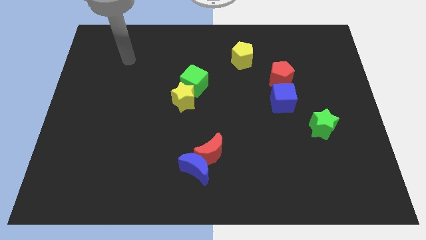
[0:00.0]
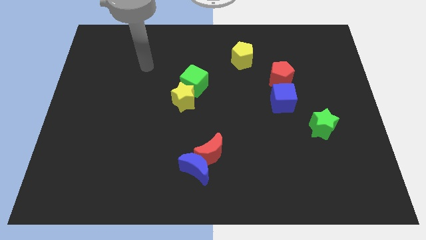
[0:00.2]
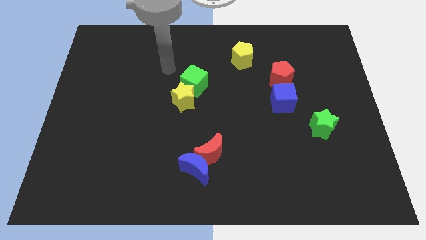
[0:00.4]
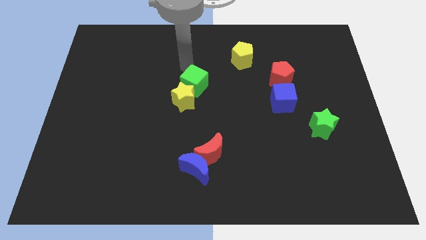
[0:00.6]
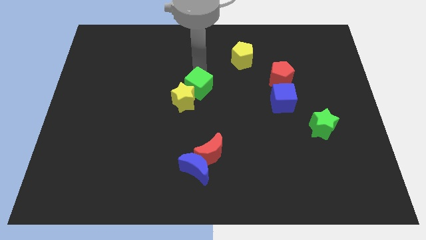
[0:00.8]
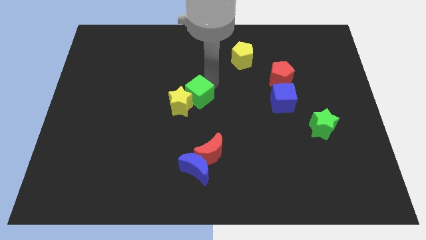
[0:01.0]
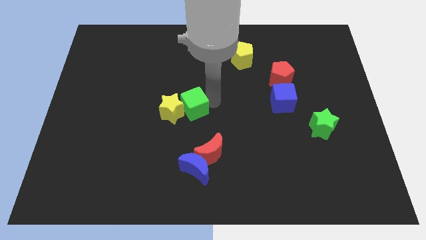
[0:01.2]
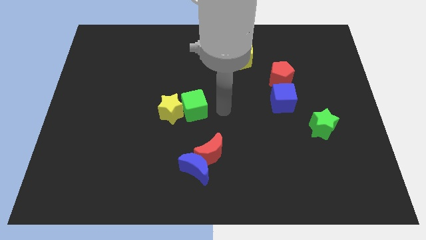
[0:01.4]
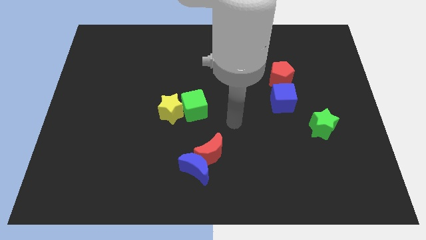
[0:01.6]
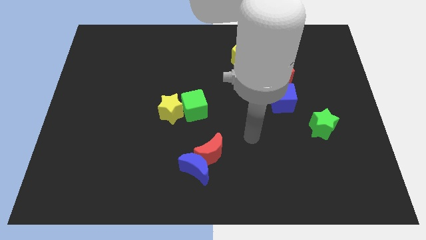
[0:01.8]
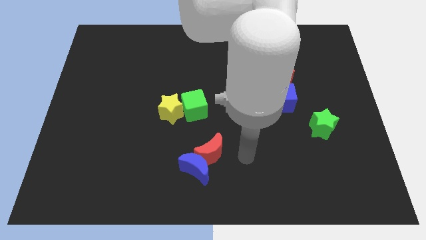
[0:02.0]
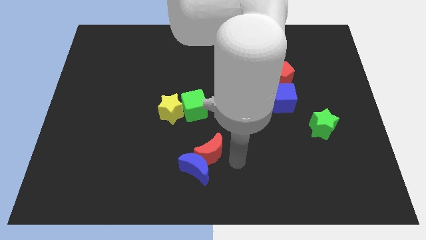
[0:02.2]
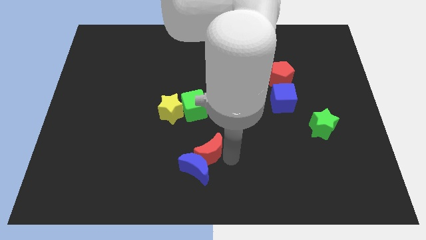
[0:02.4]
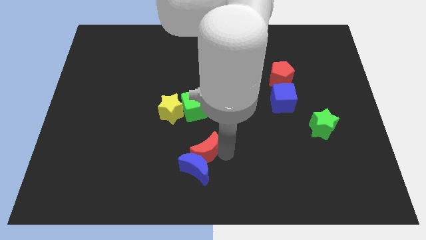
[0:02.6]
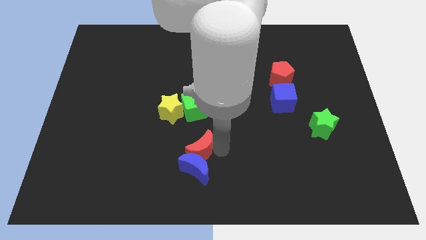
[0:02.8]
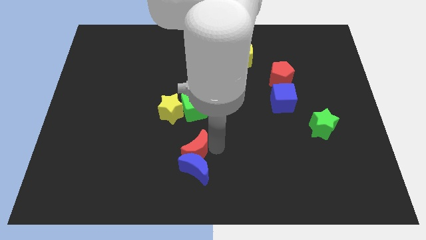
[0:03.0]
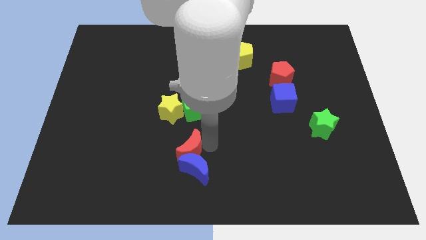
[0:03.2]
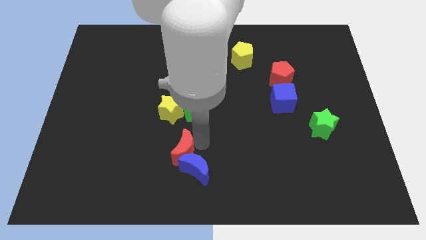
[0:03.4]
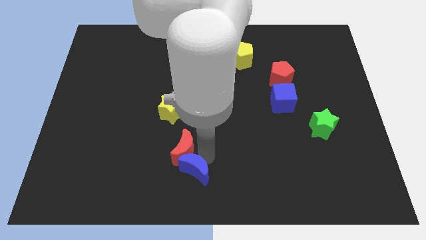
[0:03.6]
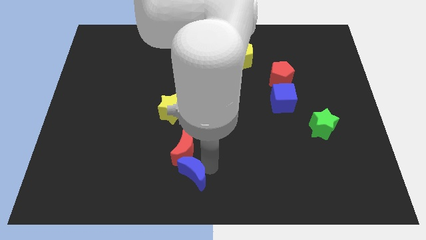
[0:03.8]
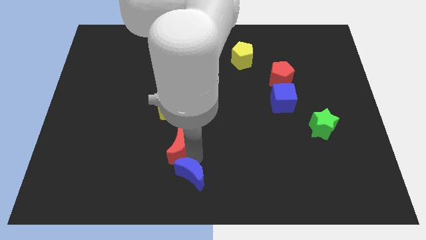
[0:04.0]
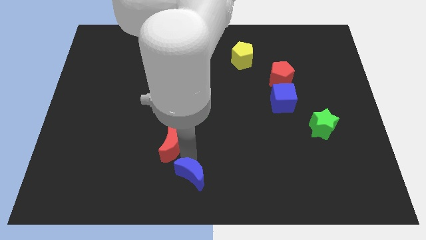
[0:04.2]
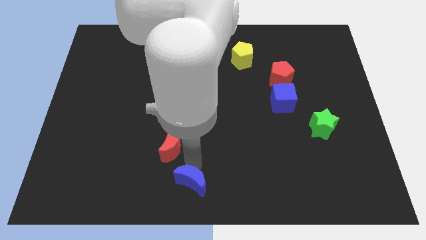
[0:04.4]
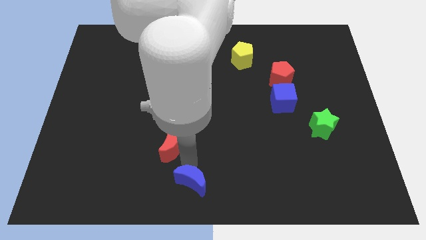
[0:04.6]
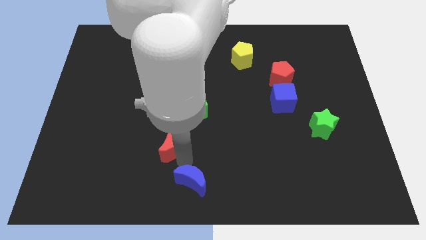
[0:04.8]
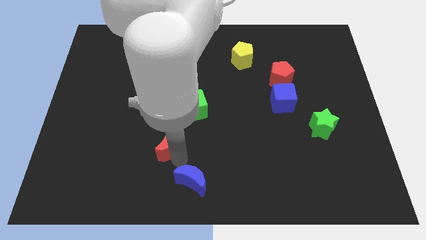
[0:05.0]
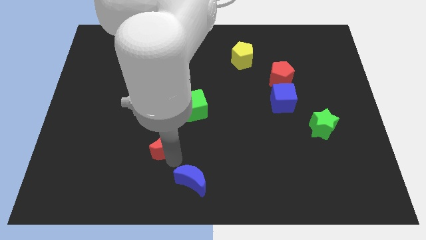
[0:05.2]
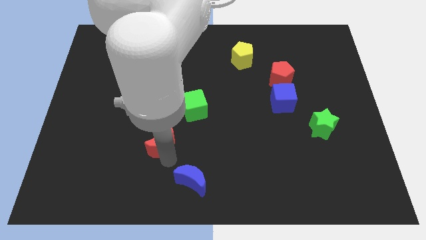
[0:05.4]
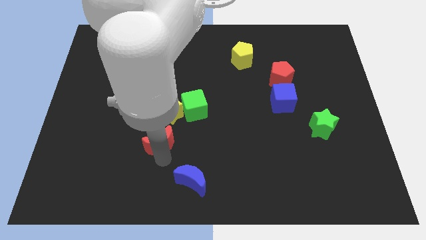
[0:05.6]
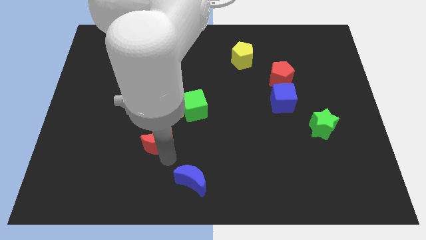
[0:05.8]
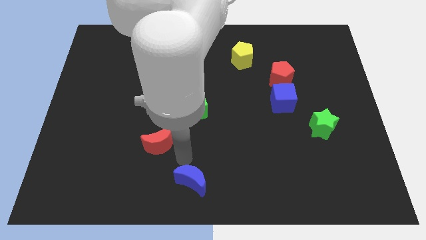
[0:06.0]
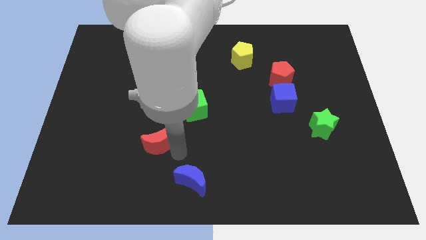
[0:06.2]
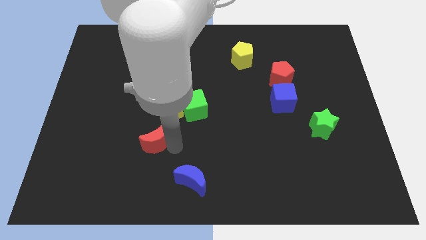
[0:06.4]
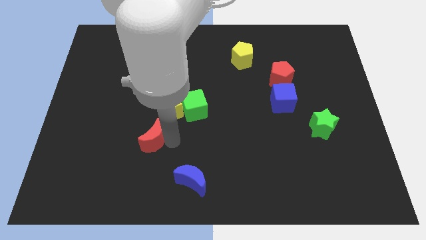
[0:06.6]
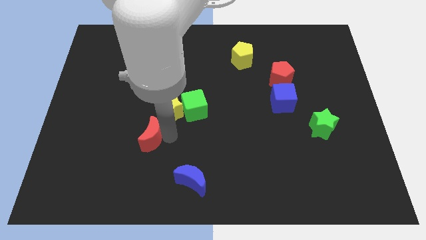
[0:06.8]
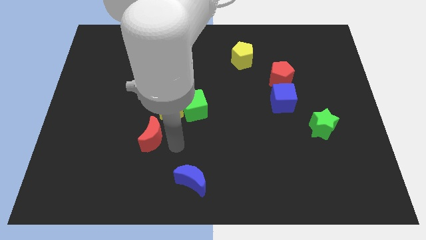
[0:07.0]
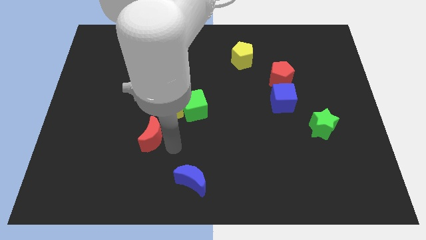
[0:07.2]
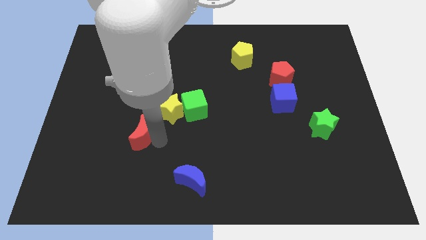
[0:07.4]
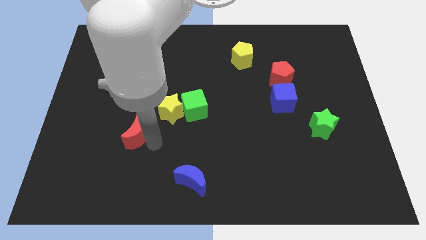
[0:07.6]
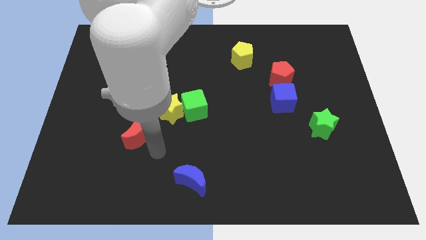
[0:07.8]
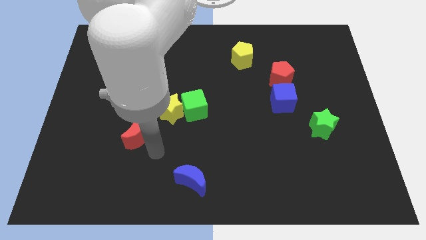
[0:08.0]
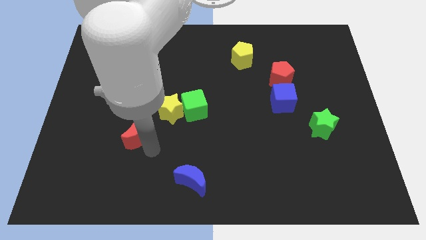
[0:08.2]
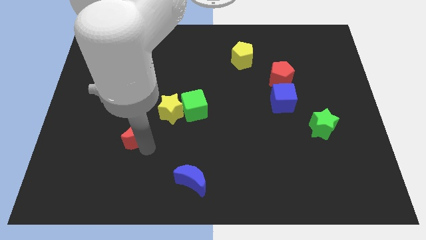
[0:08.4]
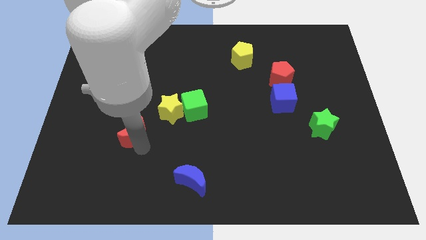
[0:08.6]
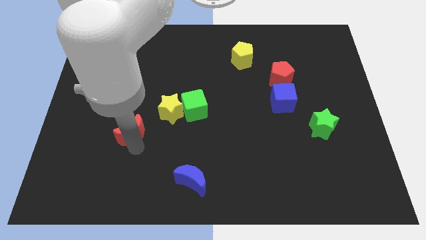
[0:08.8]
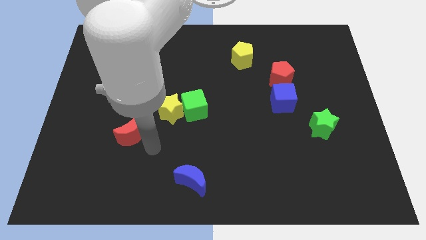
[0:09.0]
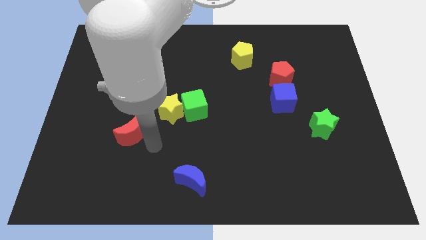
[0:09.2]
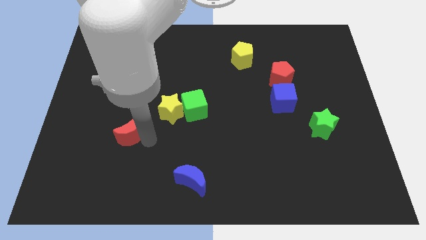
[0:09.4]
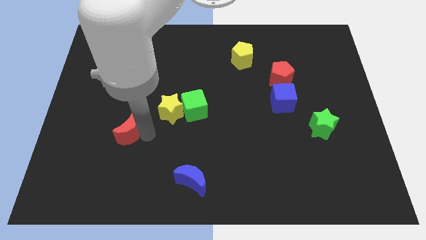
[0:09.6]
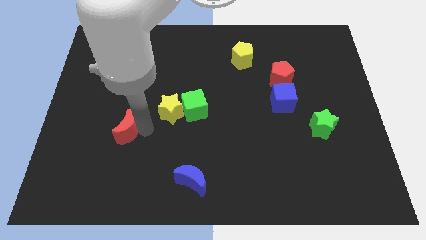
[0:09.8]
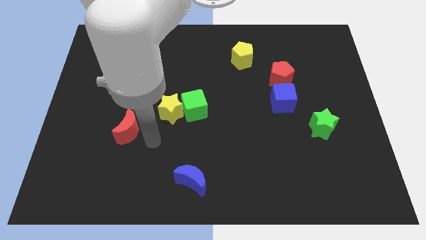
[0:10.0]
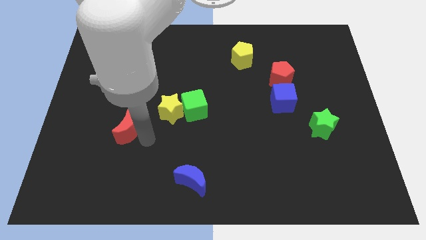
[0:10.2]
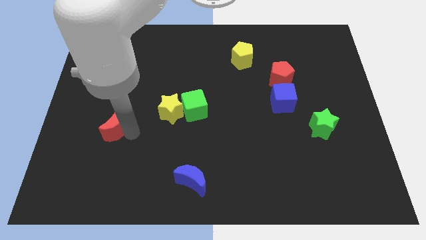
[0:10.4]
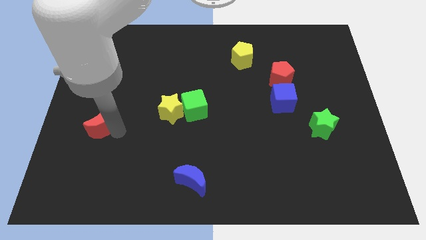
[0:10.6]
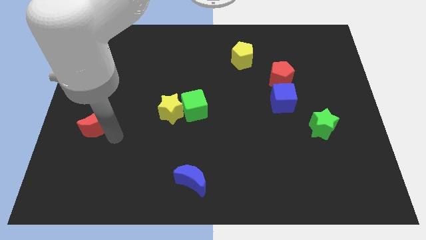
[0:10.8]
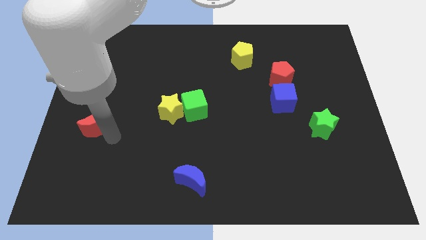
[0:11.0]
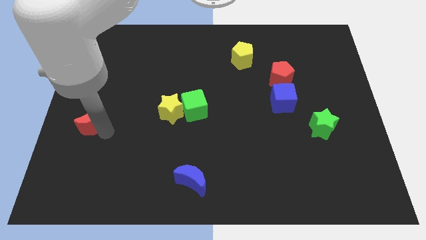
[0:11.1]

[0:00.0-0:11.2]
put the red moon to the left side of the board

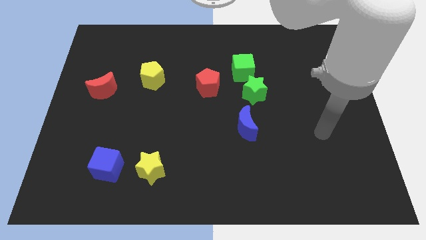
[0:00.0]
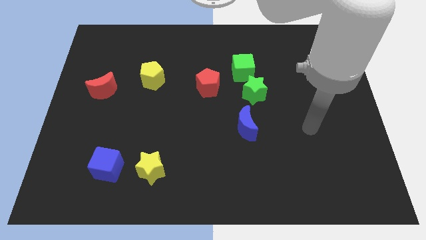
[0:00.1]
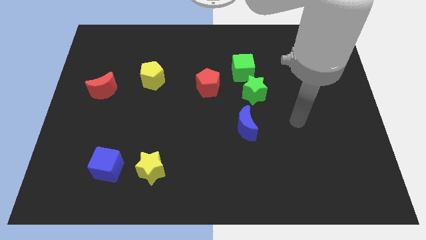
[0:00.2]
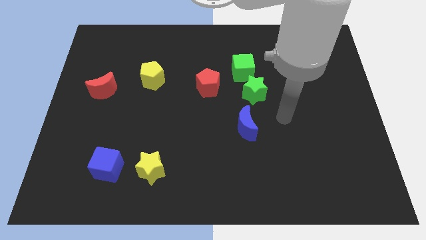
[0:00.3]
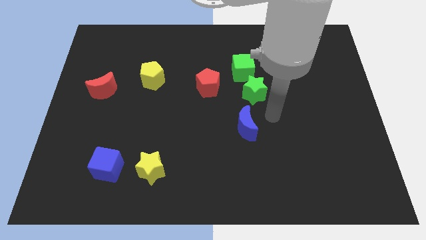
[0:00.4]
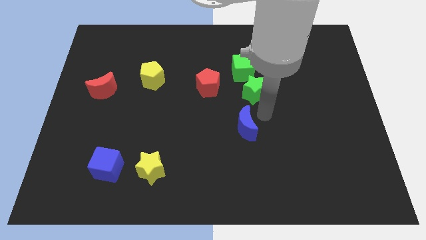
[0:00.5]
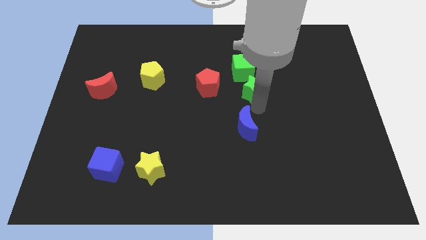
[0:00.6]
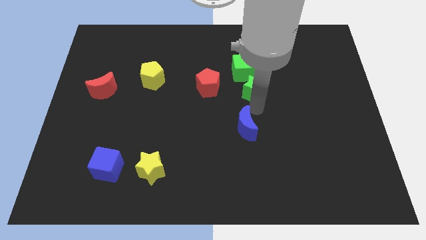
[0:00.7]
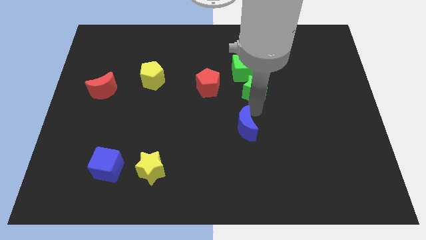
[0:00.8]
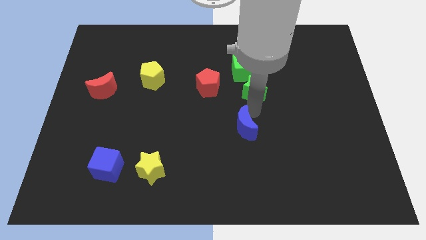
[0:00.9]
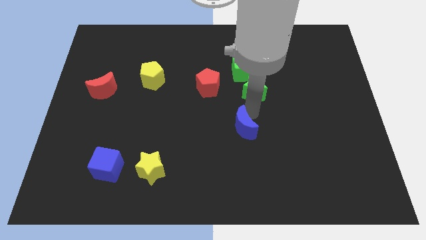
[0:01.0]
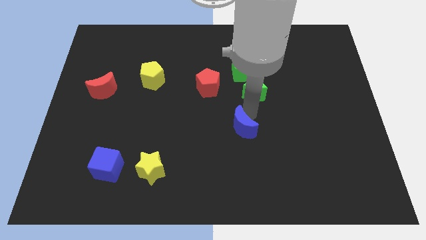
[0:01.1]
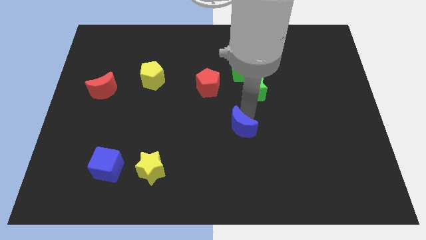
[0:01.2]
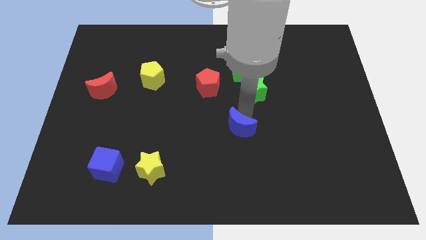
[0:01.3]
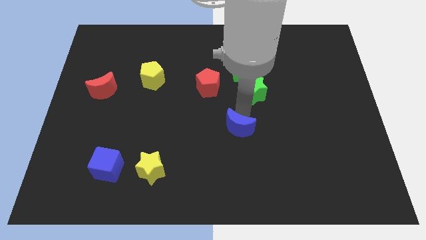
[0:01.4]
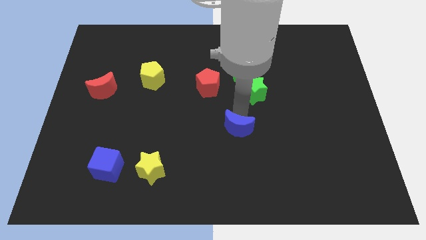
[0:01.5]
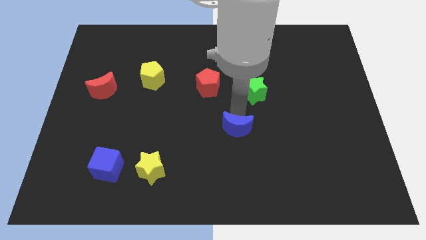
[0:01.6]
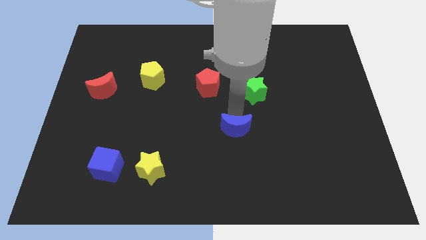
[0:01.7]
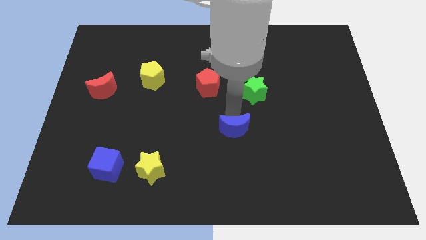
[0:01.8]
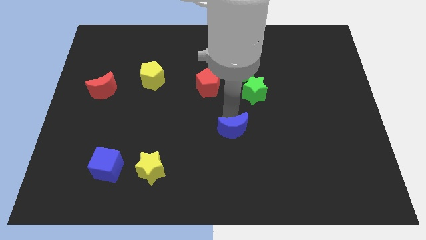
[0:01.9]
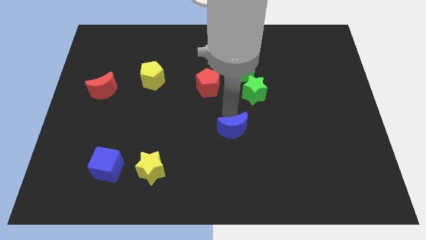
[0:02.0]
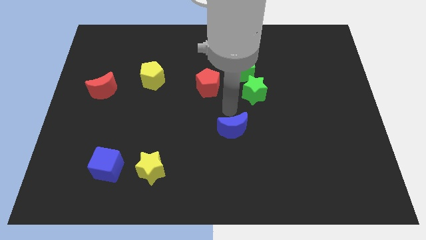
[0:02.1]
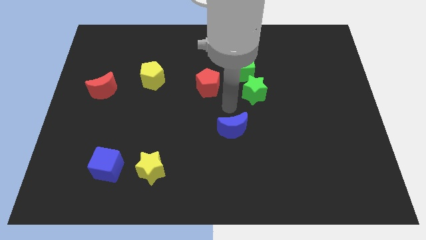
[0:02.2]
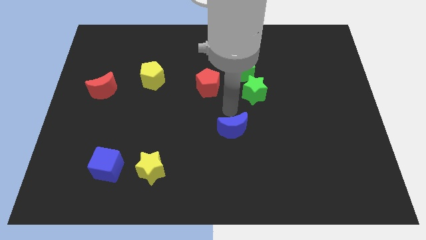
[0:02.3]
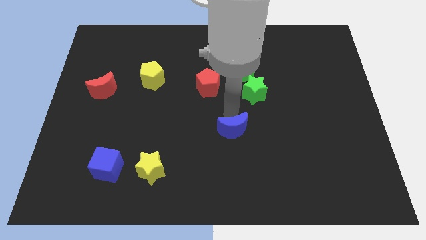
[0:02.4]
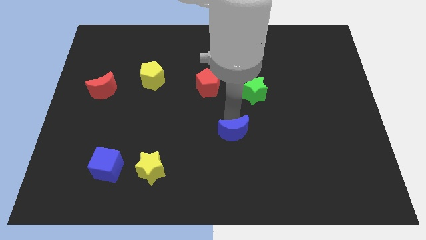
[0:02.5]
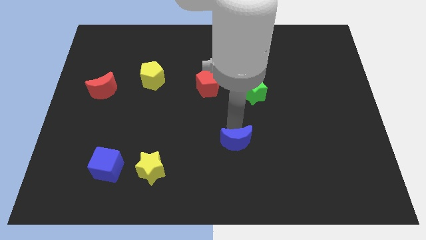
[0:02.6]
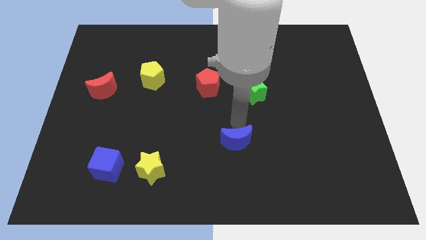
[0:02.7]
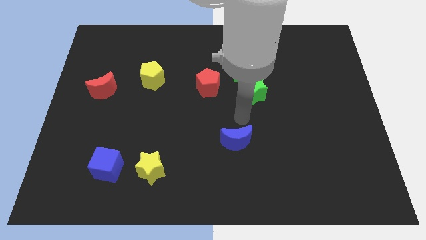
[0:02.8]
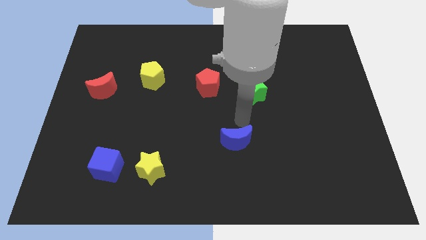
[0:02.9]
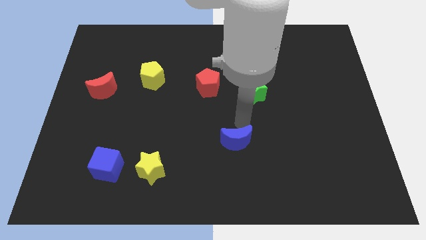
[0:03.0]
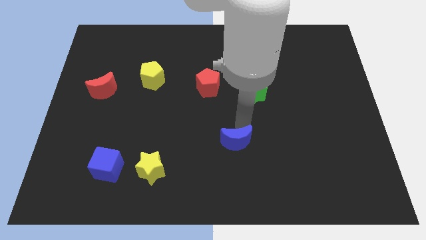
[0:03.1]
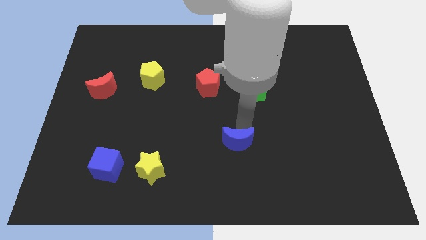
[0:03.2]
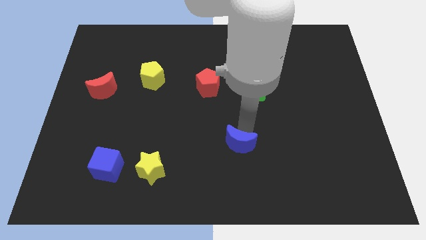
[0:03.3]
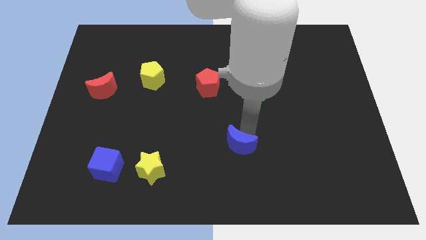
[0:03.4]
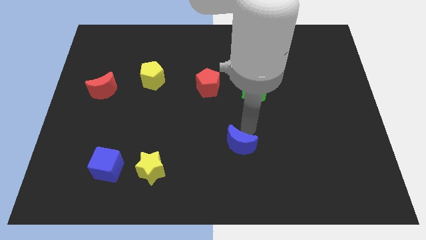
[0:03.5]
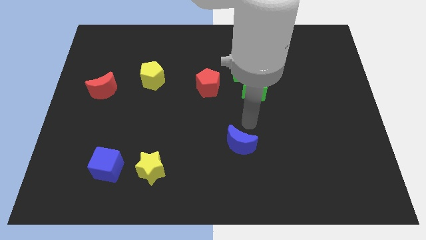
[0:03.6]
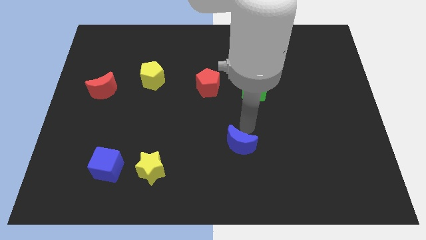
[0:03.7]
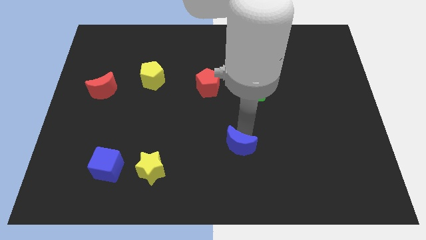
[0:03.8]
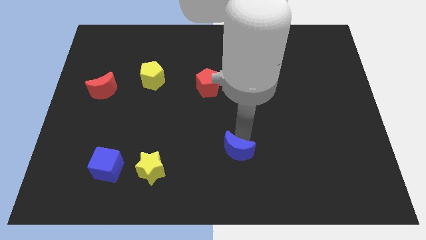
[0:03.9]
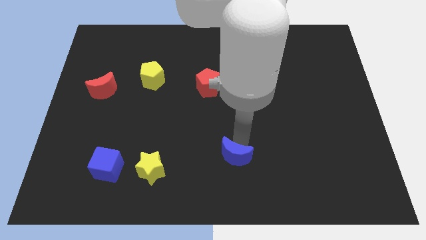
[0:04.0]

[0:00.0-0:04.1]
push the blue moon to the bottom
